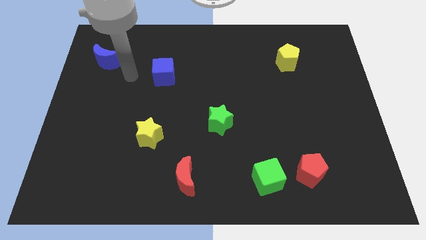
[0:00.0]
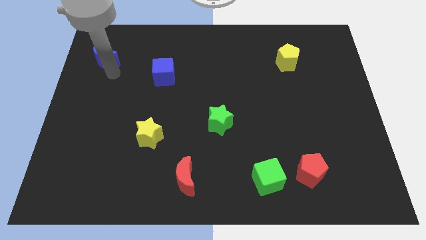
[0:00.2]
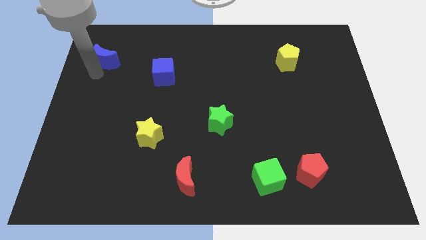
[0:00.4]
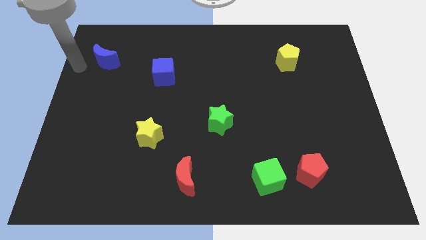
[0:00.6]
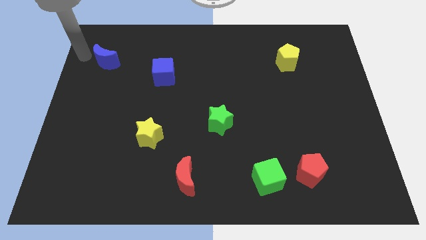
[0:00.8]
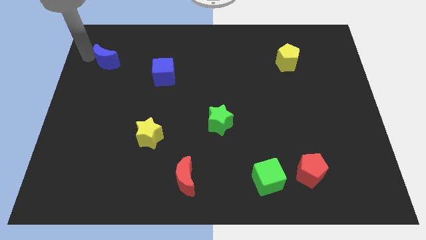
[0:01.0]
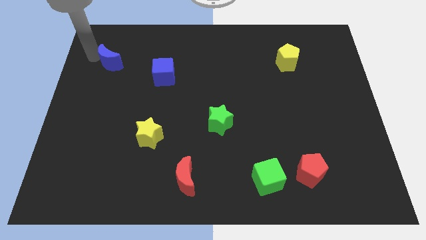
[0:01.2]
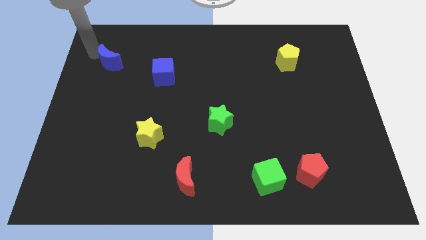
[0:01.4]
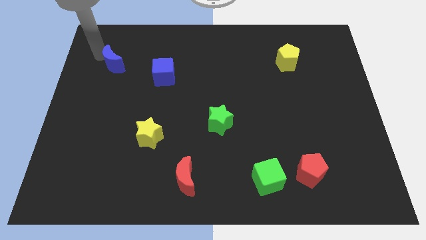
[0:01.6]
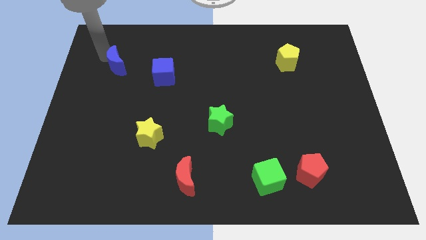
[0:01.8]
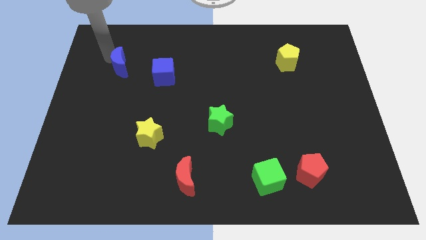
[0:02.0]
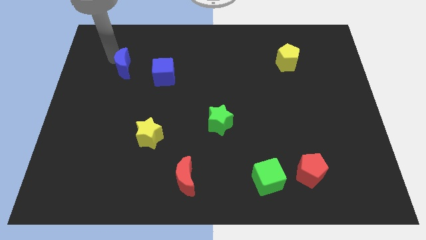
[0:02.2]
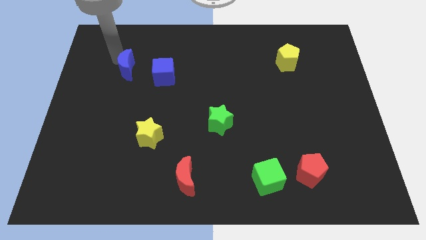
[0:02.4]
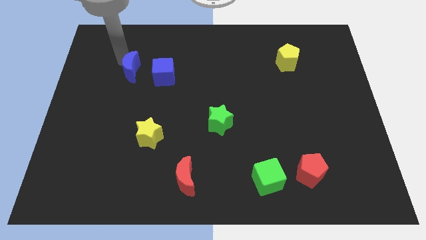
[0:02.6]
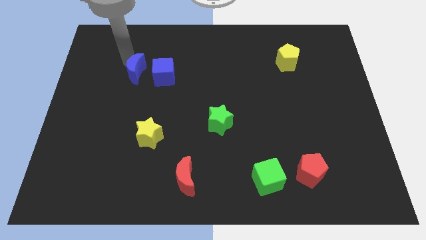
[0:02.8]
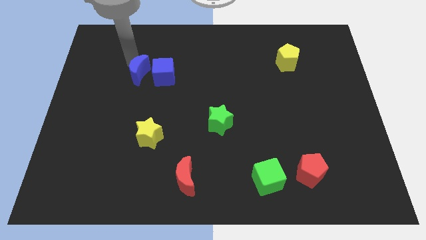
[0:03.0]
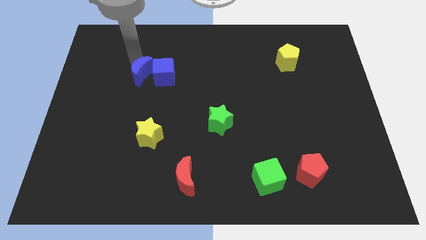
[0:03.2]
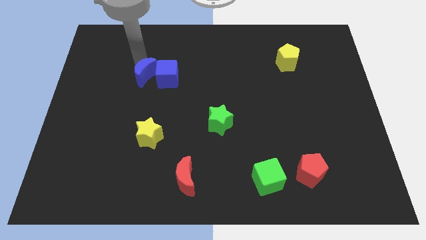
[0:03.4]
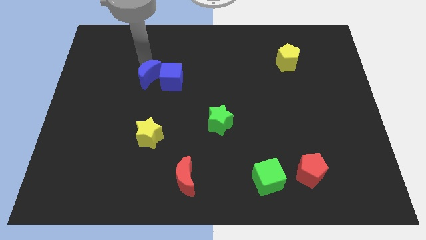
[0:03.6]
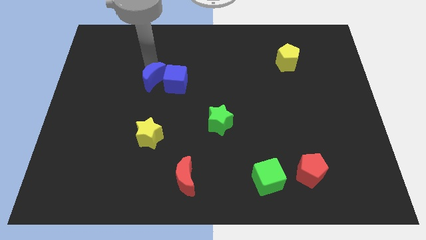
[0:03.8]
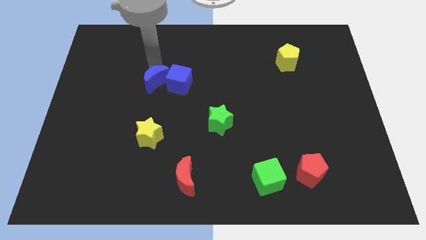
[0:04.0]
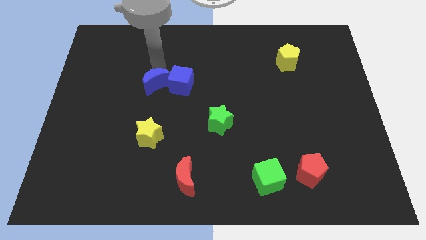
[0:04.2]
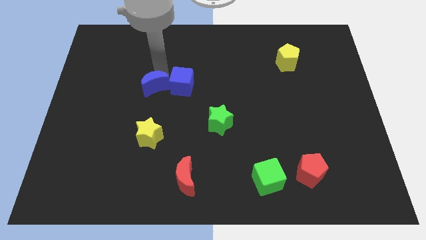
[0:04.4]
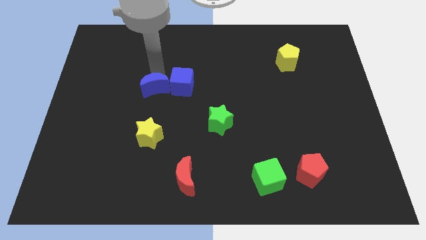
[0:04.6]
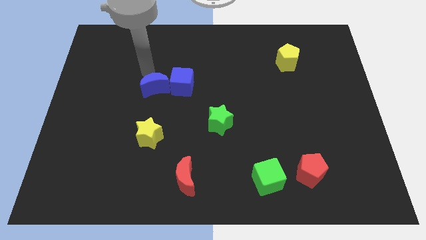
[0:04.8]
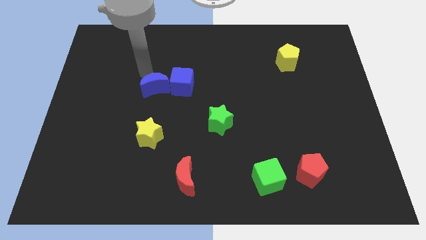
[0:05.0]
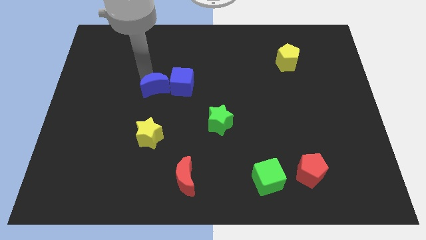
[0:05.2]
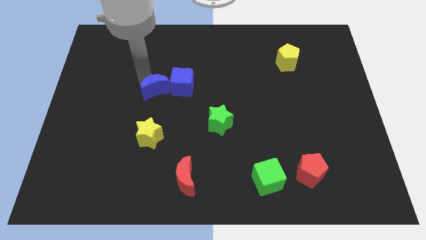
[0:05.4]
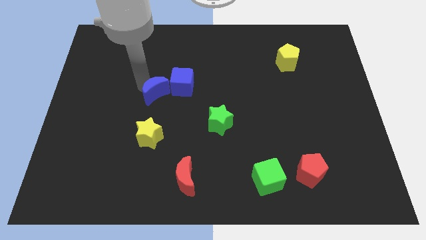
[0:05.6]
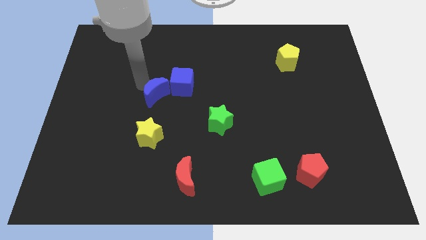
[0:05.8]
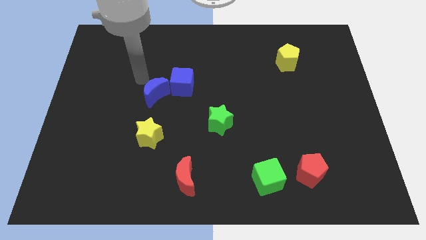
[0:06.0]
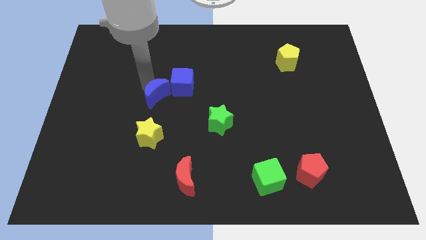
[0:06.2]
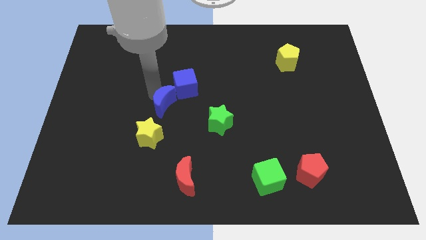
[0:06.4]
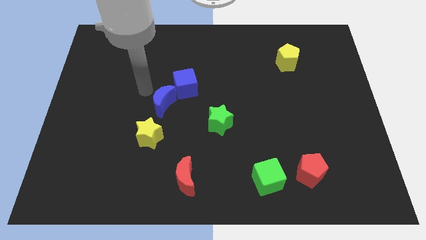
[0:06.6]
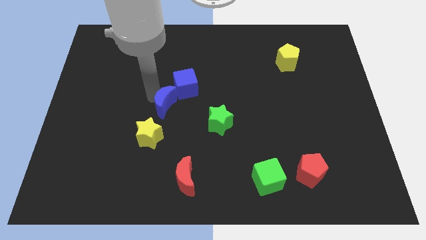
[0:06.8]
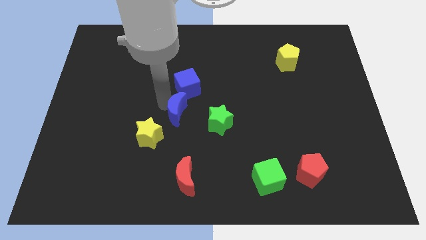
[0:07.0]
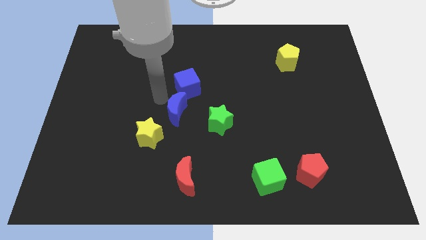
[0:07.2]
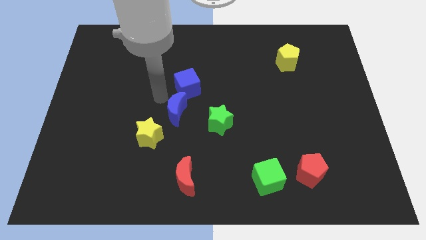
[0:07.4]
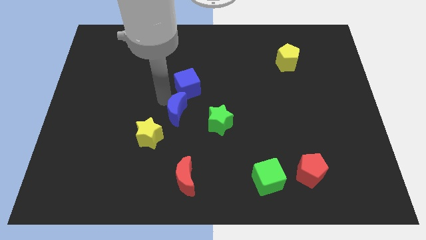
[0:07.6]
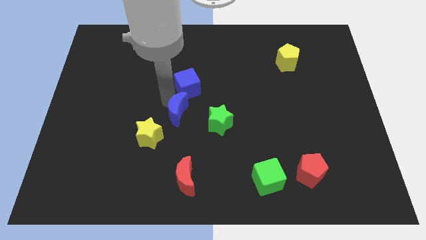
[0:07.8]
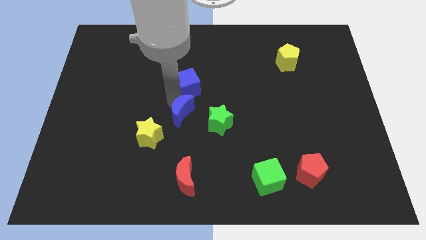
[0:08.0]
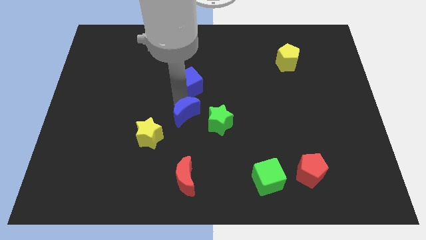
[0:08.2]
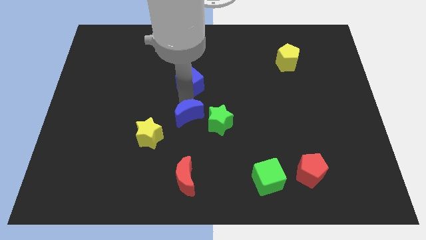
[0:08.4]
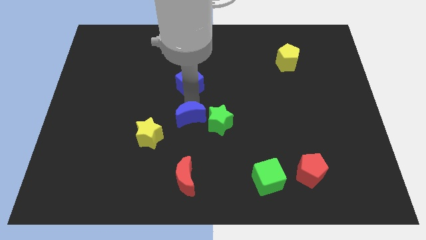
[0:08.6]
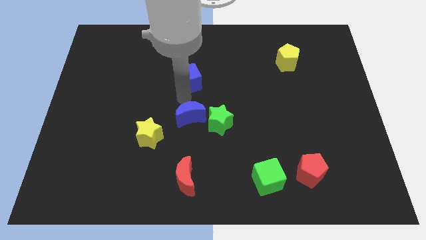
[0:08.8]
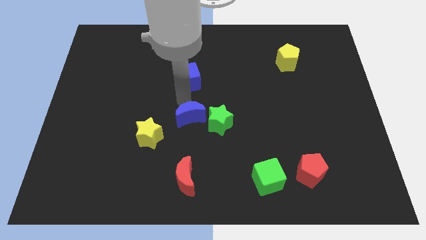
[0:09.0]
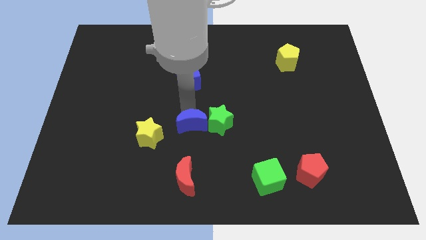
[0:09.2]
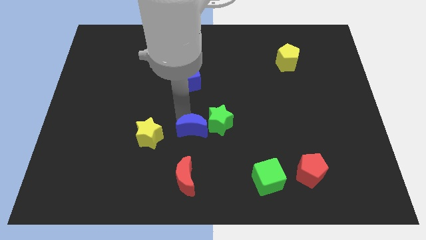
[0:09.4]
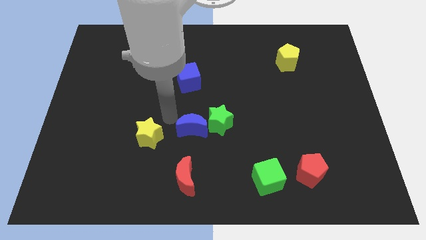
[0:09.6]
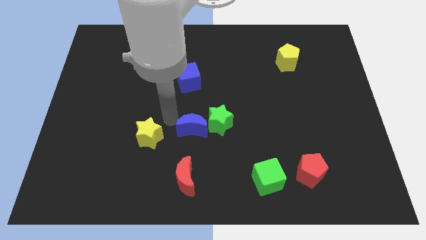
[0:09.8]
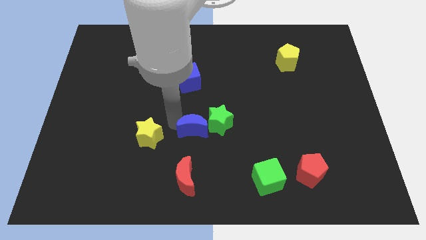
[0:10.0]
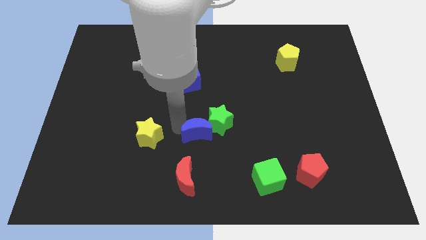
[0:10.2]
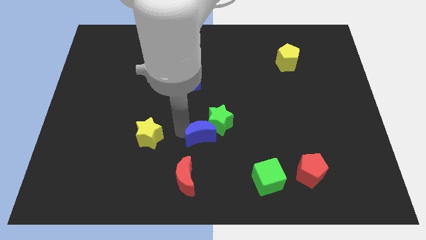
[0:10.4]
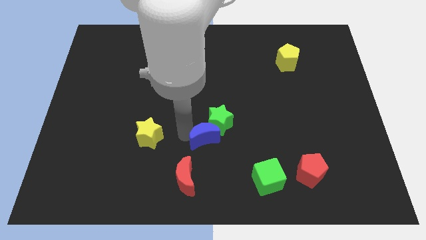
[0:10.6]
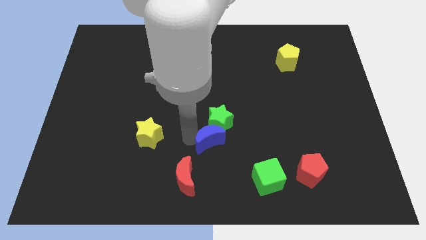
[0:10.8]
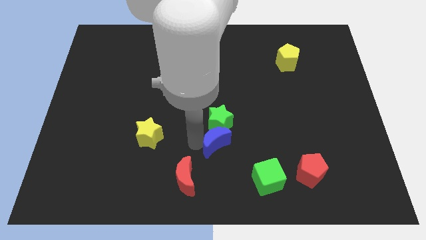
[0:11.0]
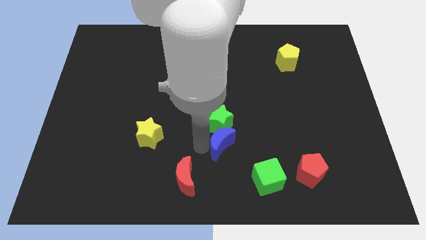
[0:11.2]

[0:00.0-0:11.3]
push the blue moon to the top left of the green cube

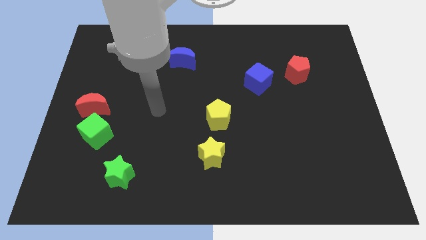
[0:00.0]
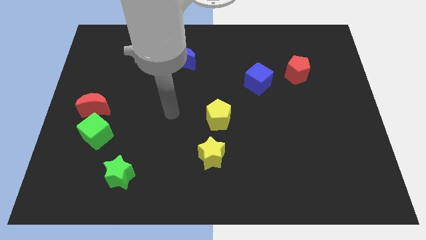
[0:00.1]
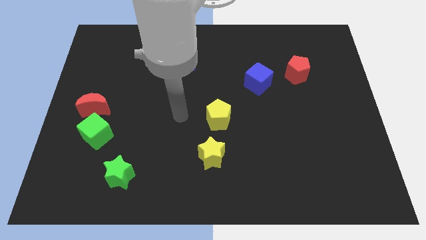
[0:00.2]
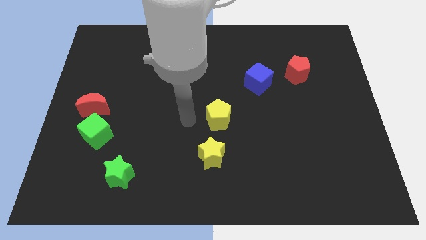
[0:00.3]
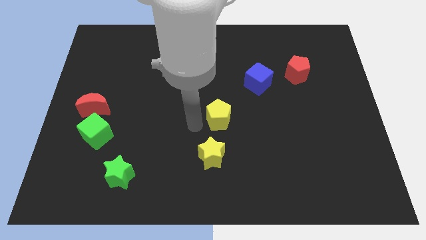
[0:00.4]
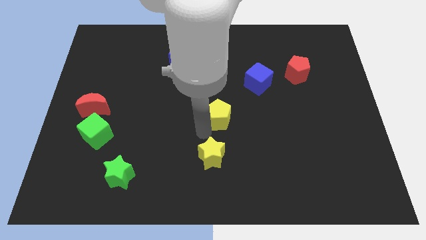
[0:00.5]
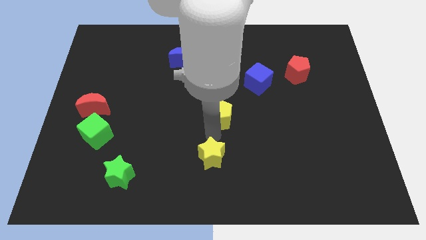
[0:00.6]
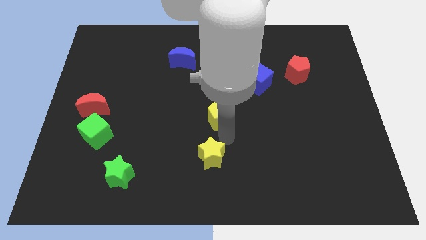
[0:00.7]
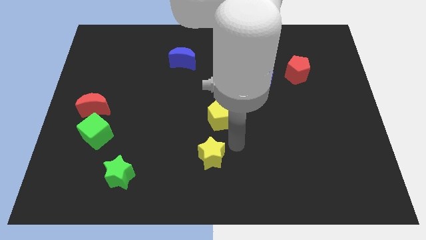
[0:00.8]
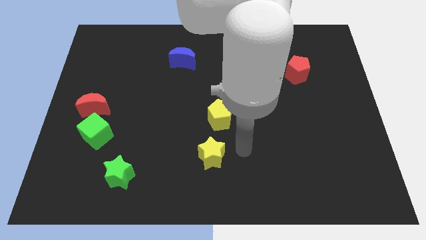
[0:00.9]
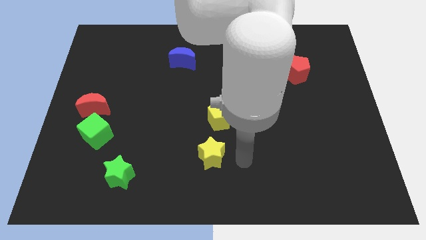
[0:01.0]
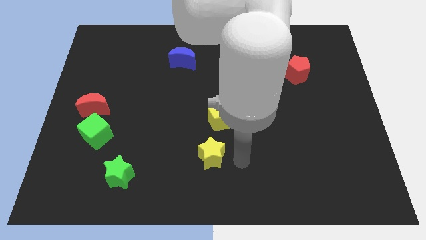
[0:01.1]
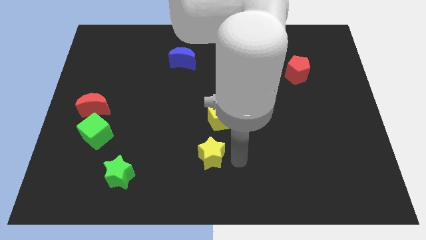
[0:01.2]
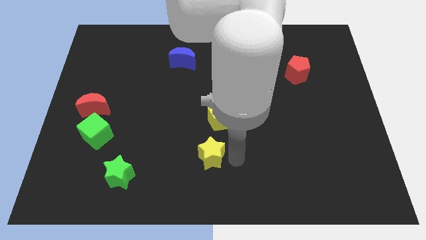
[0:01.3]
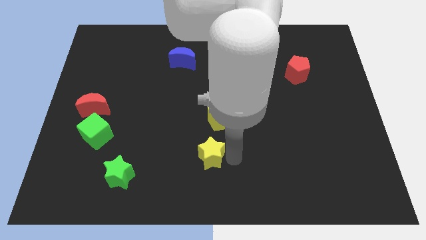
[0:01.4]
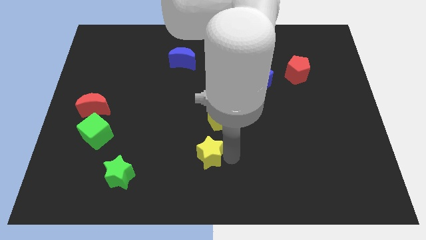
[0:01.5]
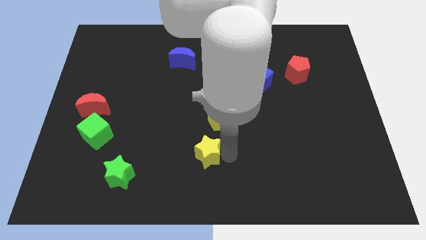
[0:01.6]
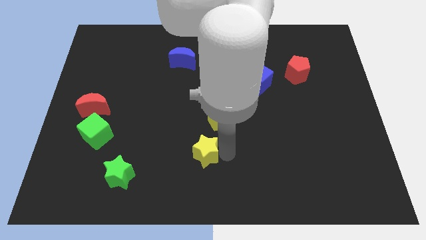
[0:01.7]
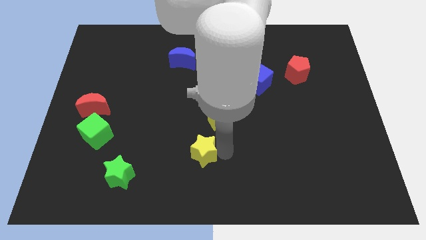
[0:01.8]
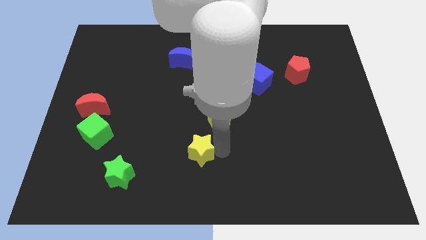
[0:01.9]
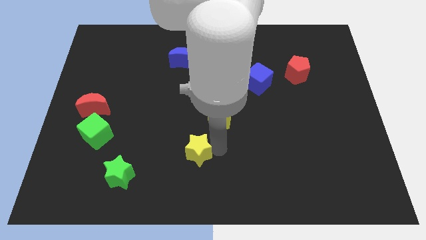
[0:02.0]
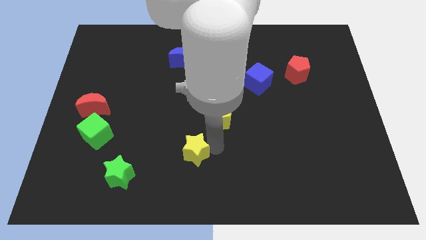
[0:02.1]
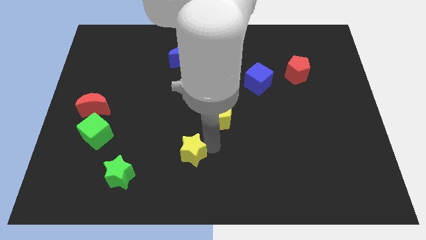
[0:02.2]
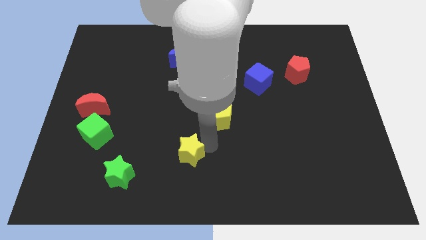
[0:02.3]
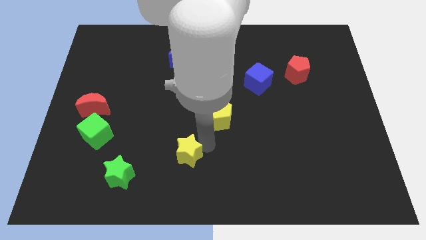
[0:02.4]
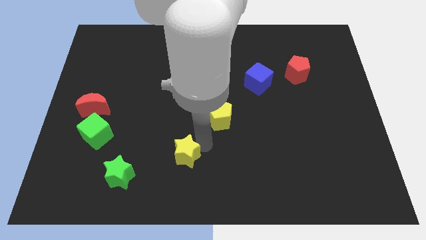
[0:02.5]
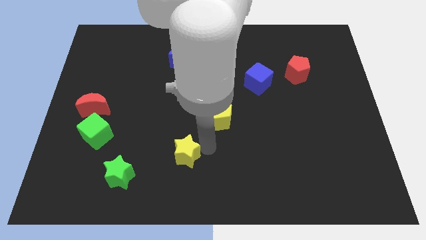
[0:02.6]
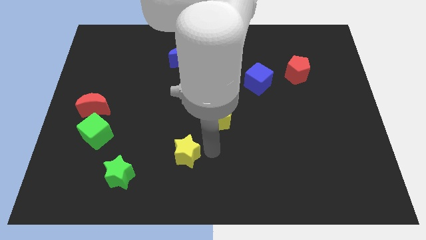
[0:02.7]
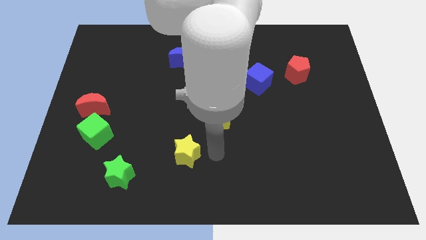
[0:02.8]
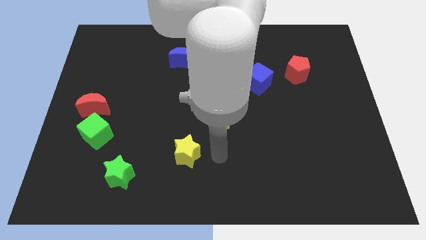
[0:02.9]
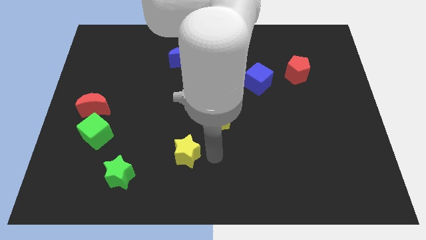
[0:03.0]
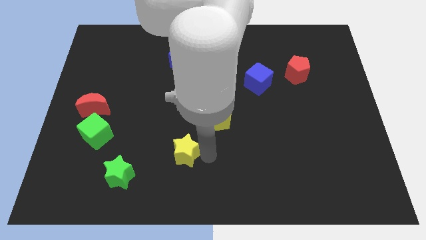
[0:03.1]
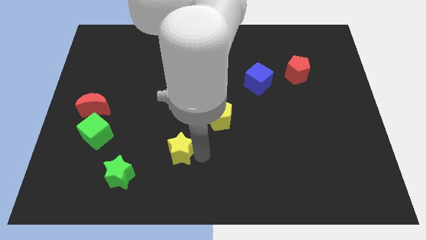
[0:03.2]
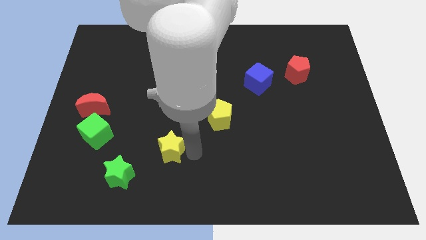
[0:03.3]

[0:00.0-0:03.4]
put the yellow star to the top right side of the green star
